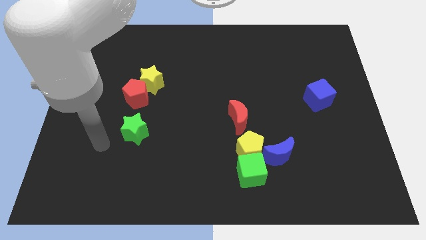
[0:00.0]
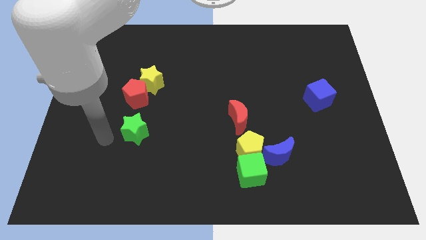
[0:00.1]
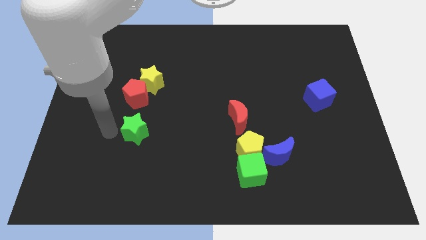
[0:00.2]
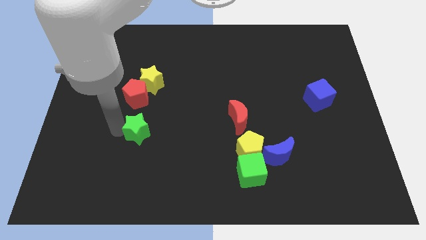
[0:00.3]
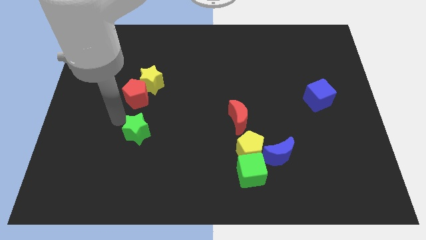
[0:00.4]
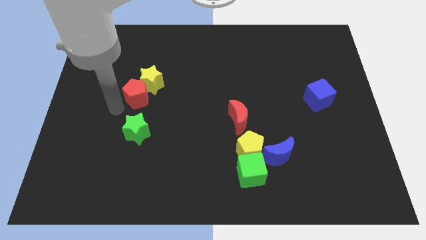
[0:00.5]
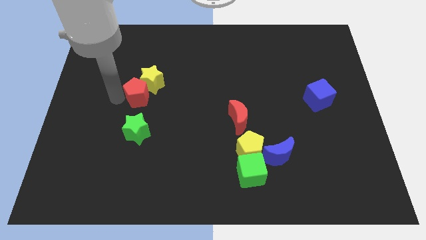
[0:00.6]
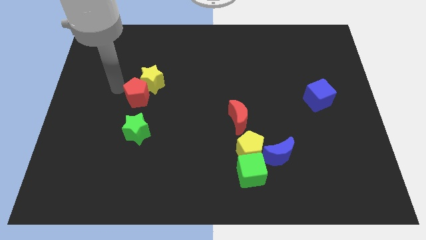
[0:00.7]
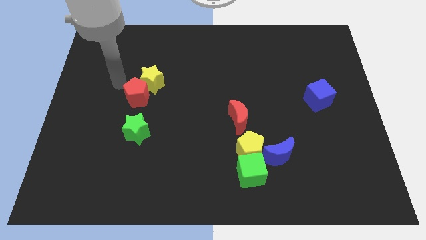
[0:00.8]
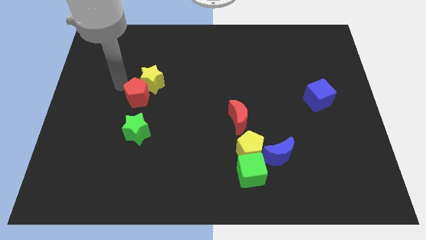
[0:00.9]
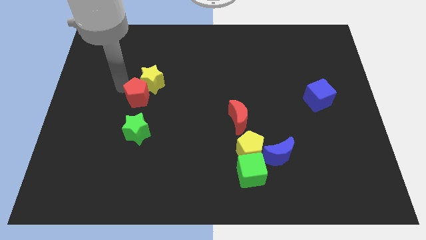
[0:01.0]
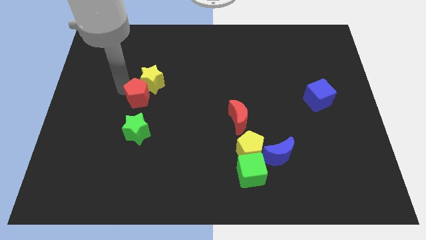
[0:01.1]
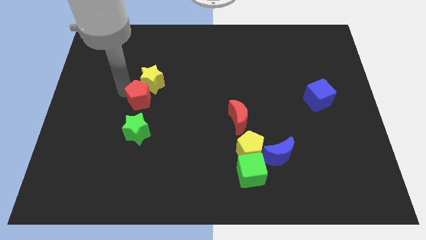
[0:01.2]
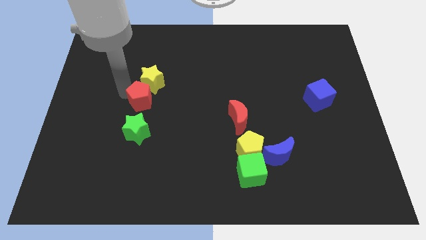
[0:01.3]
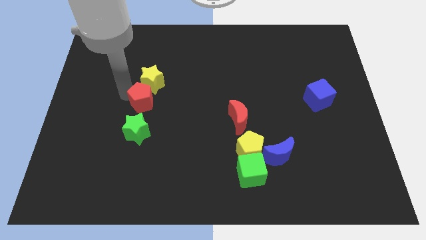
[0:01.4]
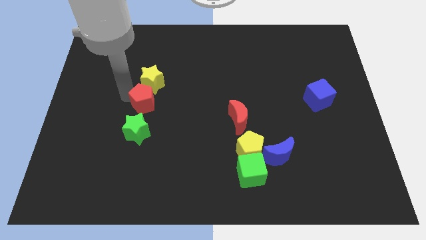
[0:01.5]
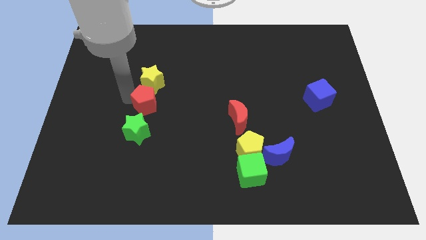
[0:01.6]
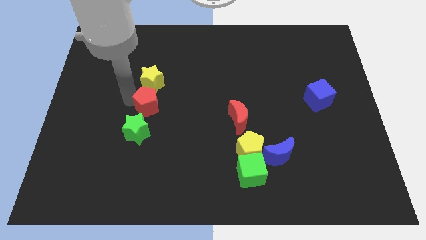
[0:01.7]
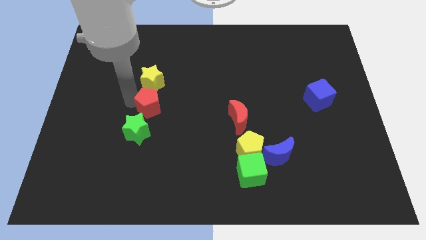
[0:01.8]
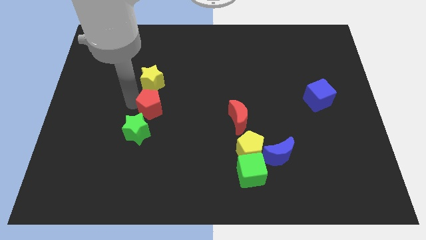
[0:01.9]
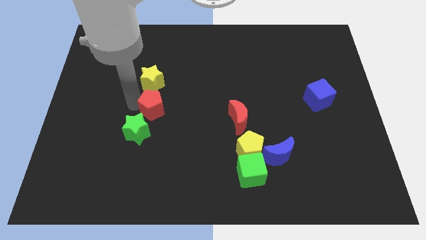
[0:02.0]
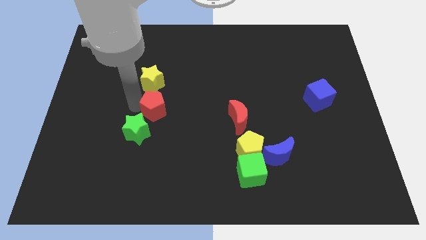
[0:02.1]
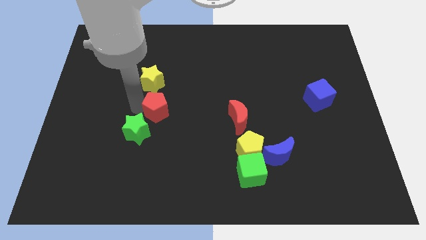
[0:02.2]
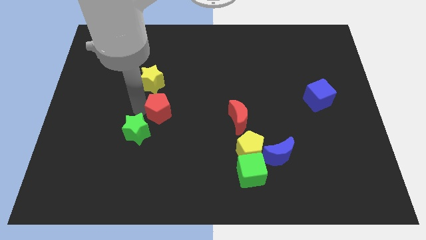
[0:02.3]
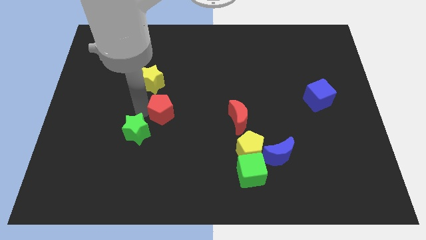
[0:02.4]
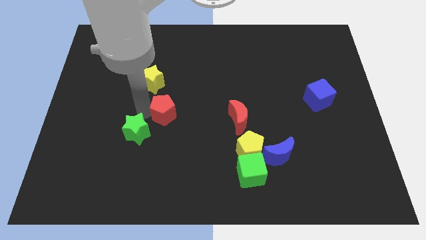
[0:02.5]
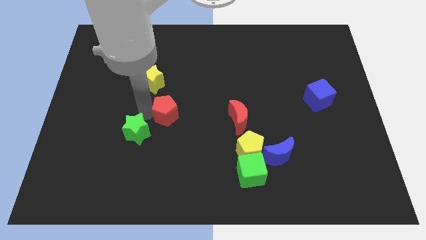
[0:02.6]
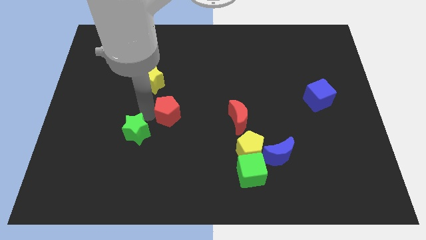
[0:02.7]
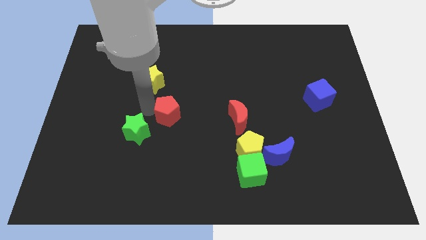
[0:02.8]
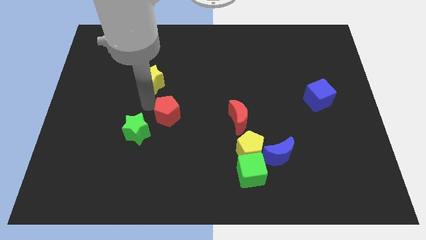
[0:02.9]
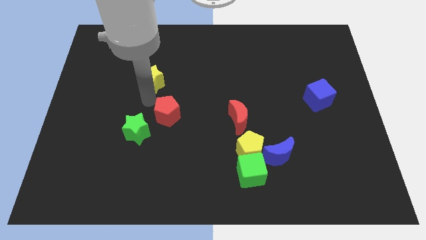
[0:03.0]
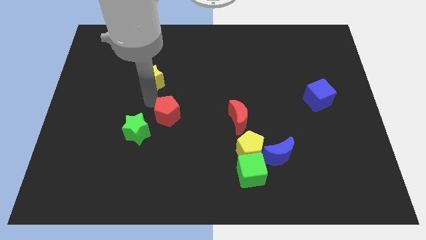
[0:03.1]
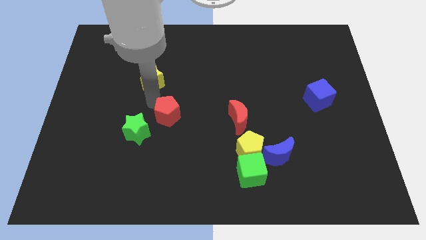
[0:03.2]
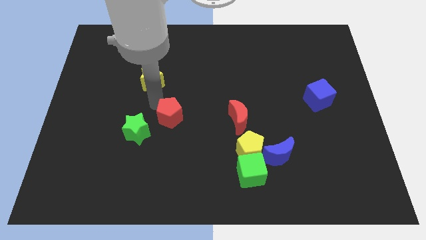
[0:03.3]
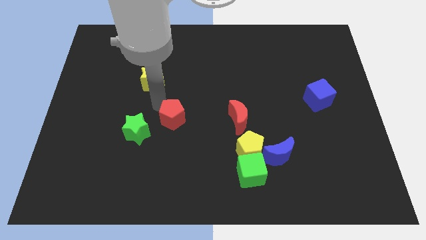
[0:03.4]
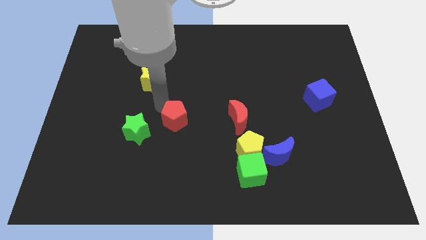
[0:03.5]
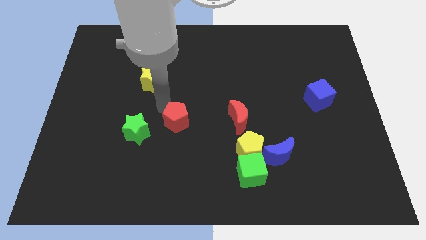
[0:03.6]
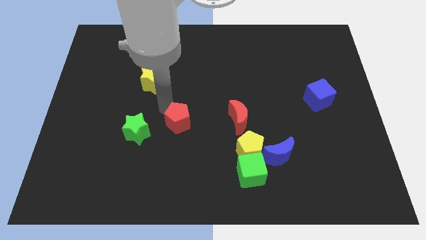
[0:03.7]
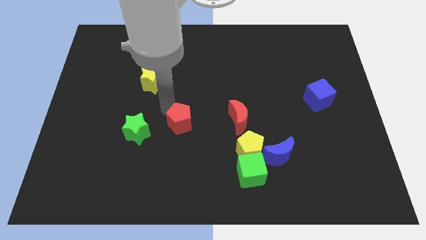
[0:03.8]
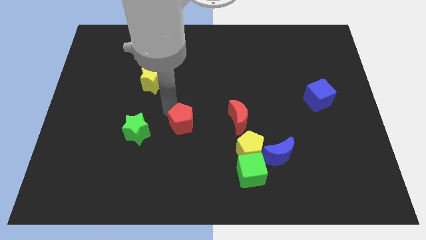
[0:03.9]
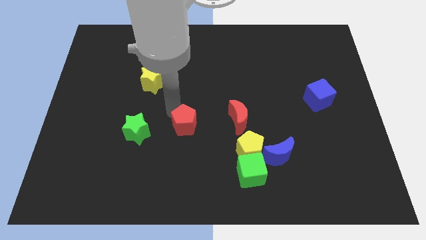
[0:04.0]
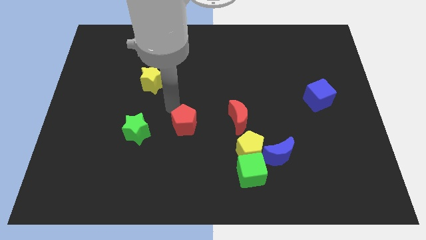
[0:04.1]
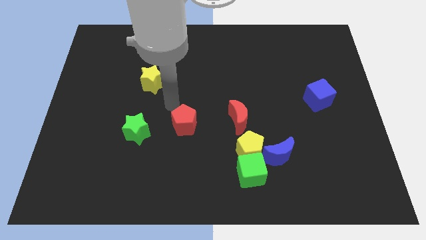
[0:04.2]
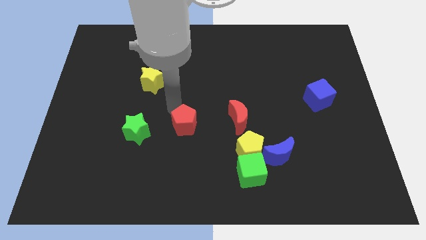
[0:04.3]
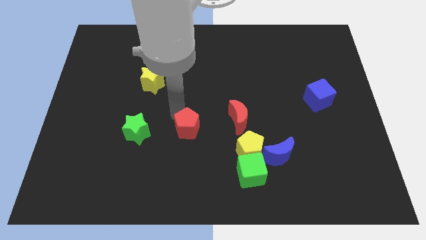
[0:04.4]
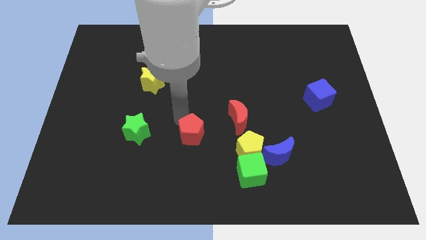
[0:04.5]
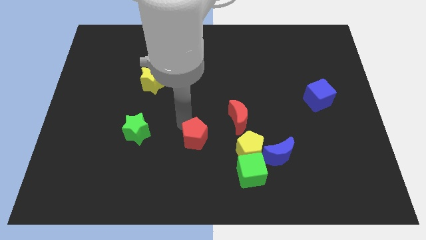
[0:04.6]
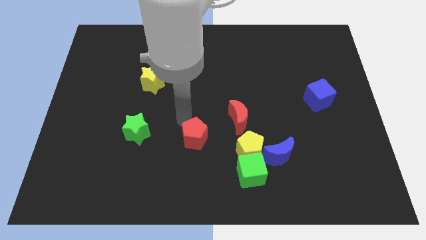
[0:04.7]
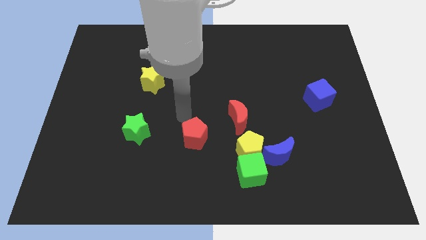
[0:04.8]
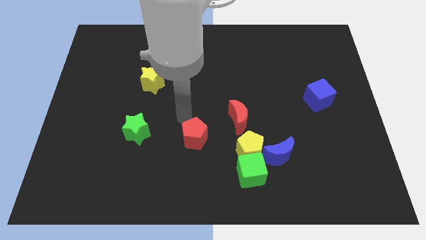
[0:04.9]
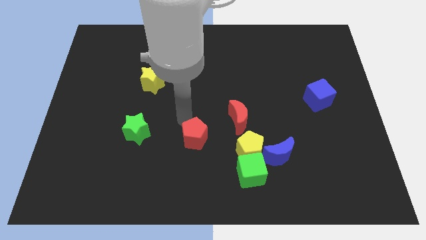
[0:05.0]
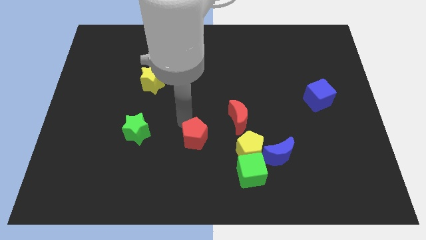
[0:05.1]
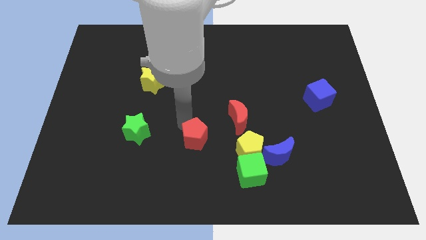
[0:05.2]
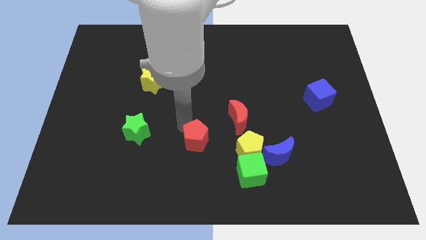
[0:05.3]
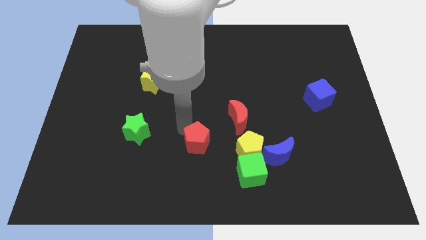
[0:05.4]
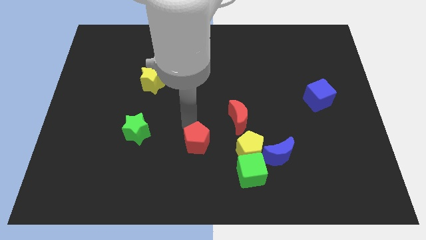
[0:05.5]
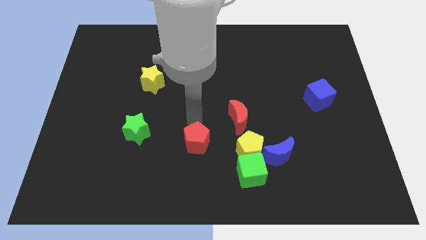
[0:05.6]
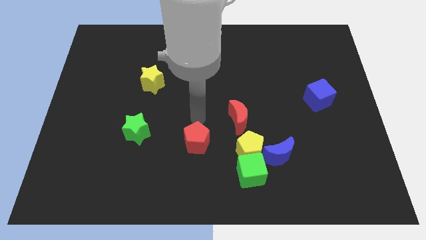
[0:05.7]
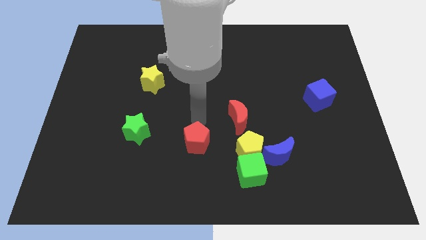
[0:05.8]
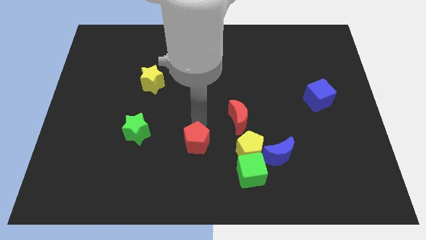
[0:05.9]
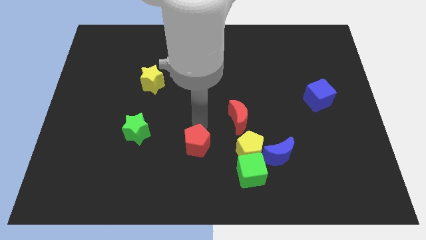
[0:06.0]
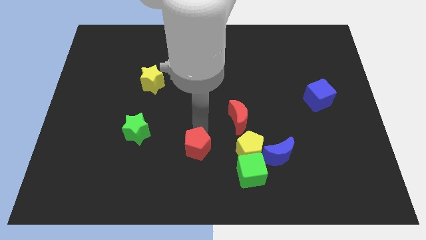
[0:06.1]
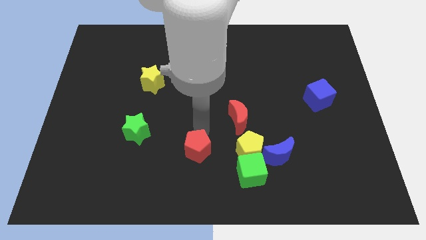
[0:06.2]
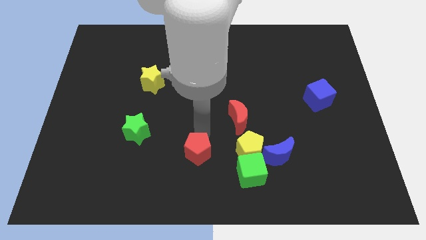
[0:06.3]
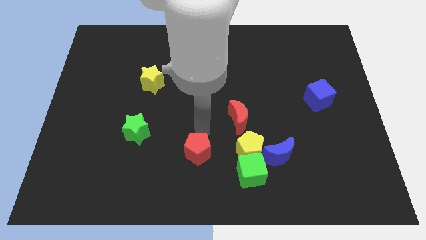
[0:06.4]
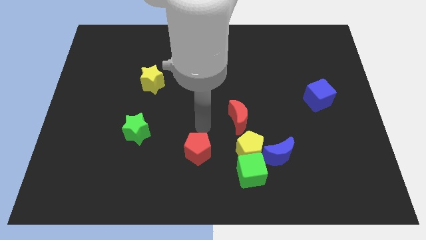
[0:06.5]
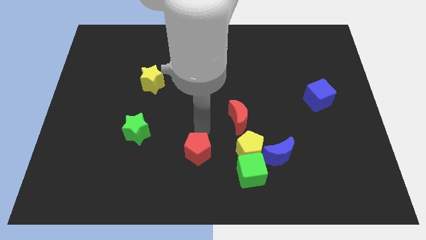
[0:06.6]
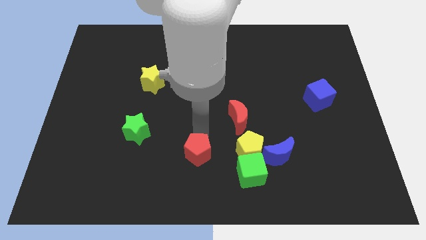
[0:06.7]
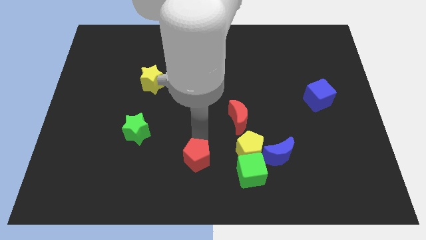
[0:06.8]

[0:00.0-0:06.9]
put the red pentagon to the bottom
